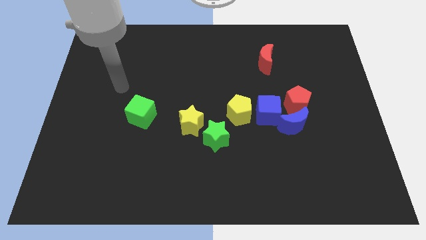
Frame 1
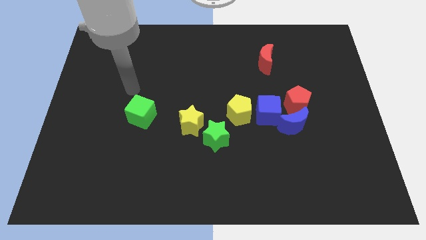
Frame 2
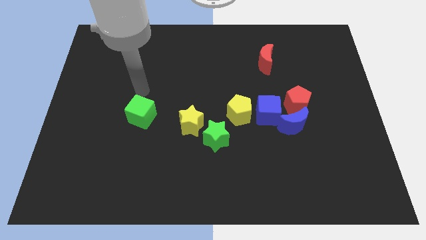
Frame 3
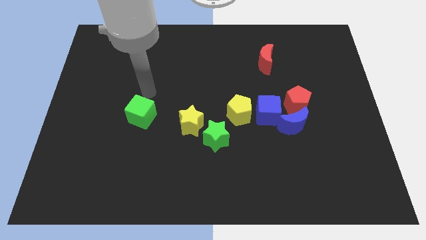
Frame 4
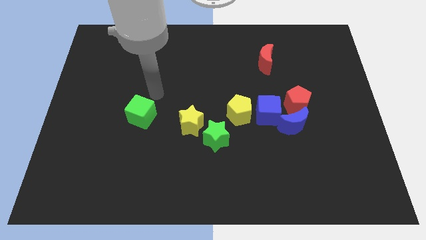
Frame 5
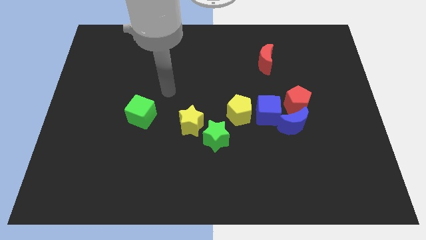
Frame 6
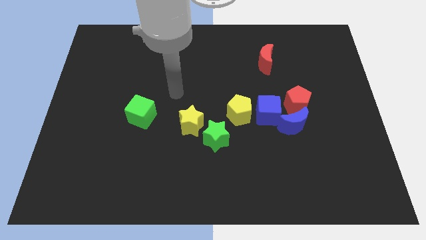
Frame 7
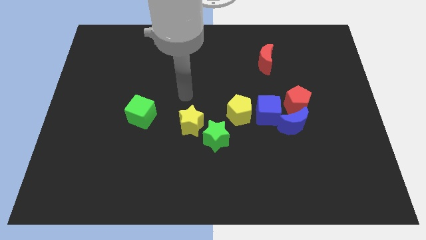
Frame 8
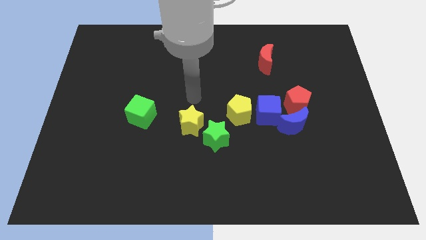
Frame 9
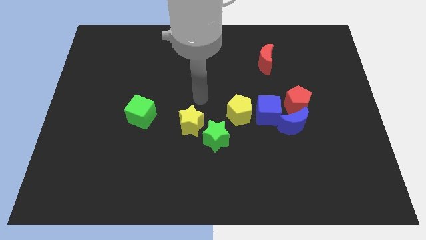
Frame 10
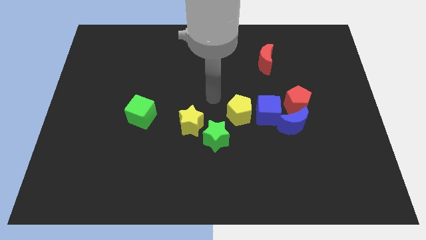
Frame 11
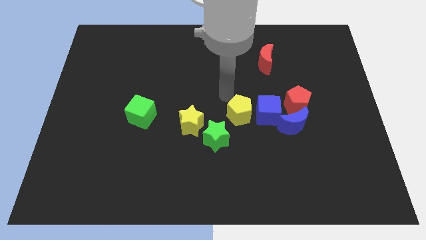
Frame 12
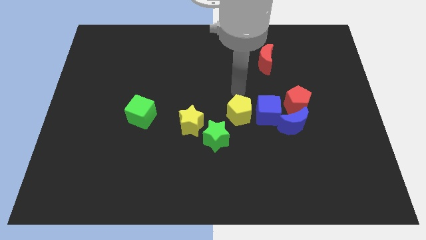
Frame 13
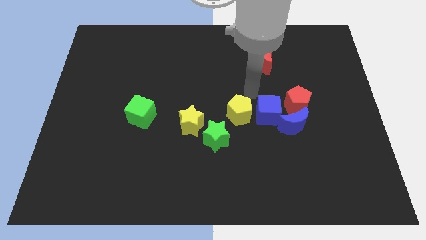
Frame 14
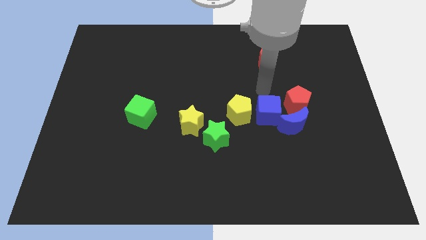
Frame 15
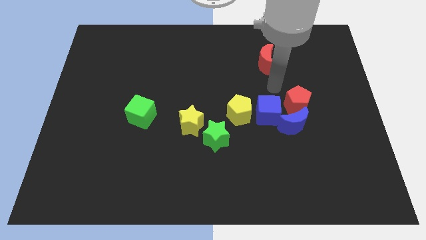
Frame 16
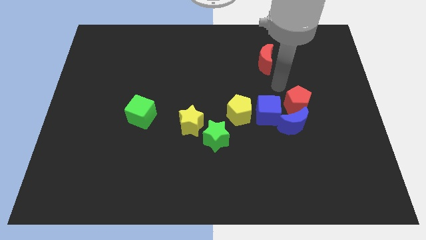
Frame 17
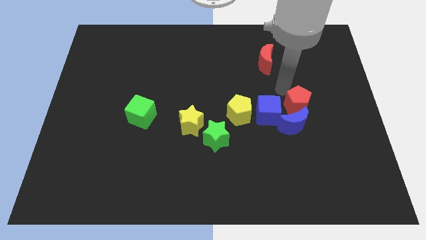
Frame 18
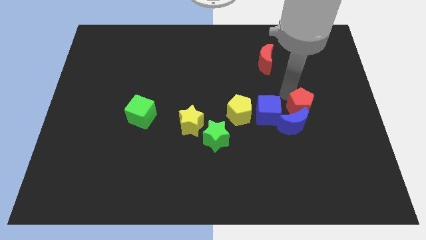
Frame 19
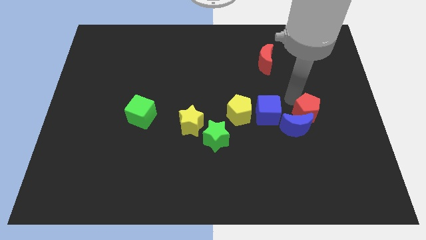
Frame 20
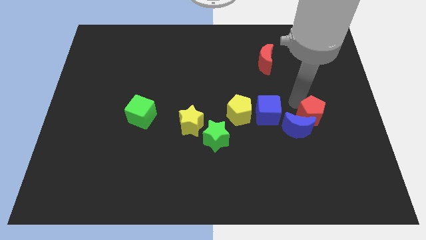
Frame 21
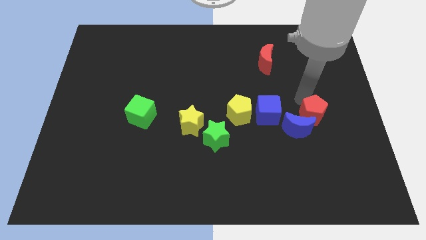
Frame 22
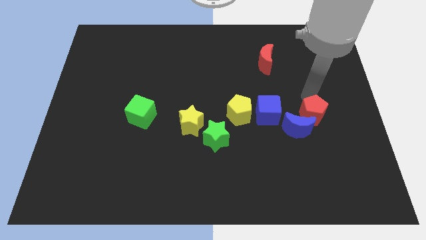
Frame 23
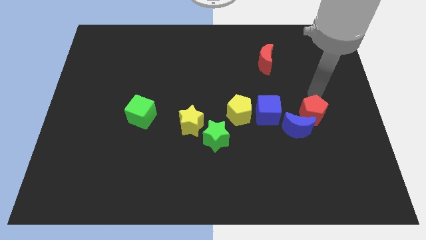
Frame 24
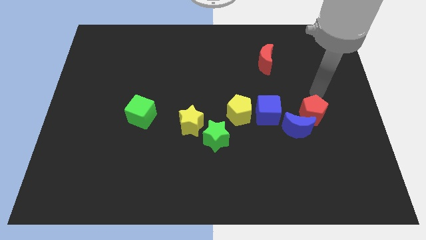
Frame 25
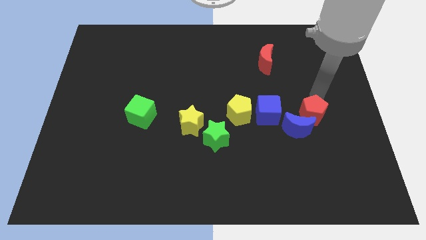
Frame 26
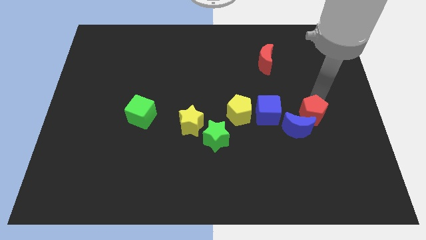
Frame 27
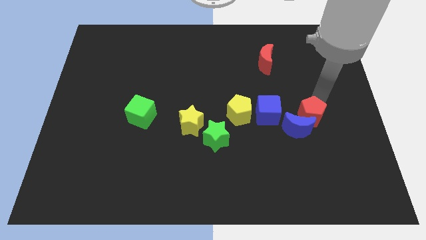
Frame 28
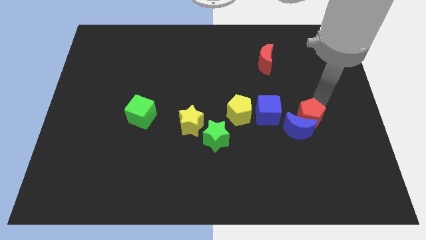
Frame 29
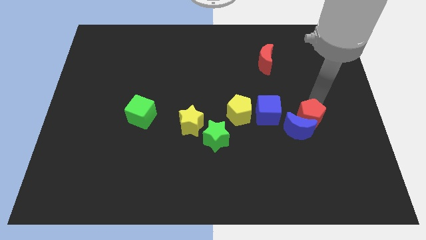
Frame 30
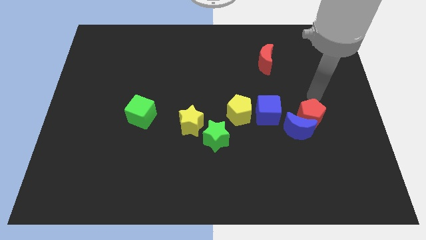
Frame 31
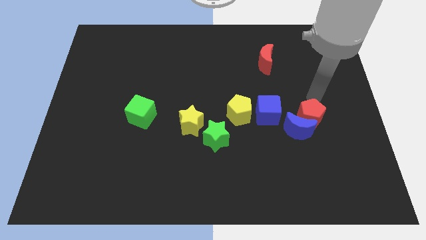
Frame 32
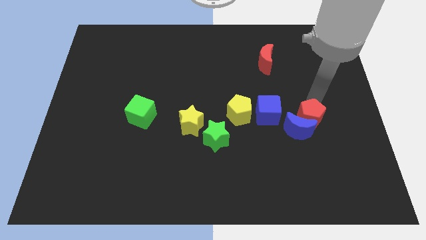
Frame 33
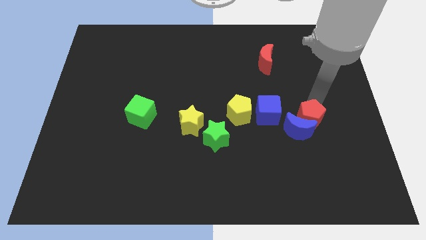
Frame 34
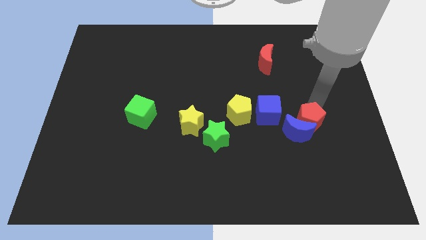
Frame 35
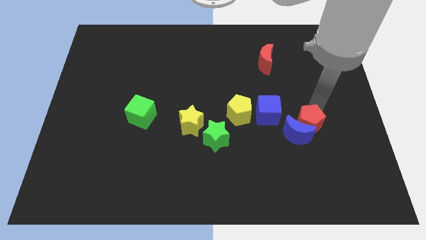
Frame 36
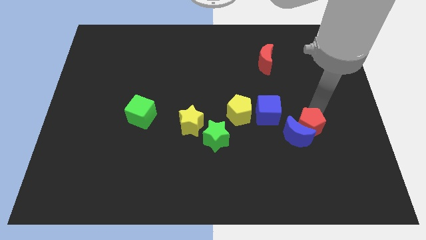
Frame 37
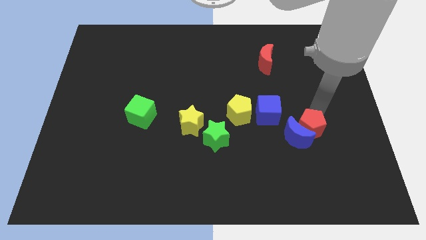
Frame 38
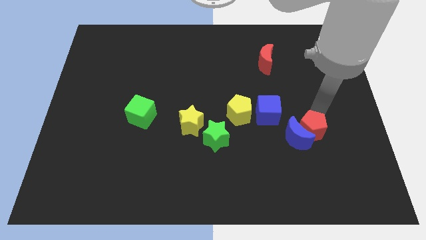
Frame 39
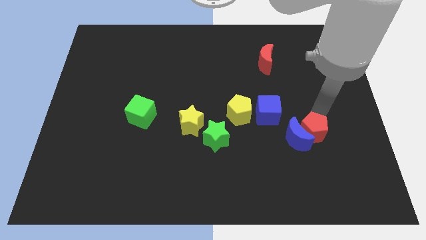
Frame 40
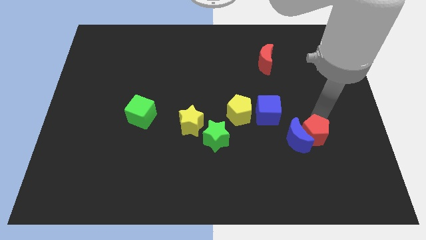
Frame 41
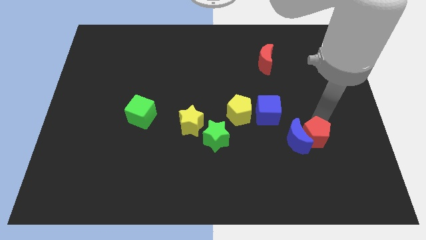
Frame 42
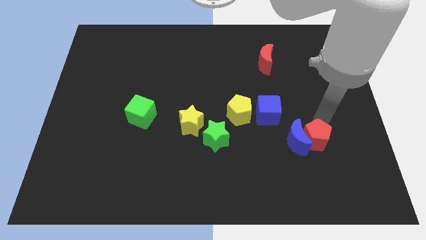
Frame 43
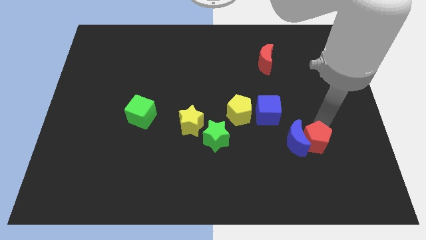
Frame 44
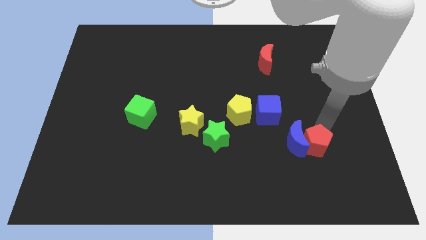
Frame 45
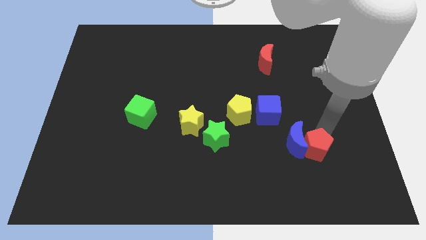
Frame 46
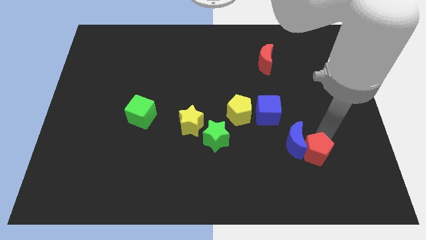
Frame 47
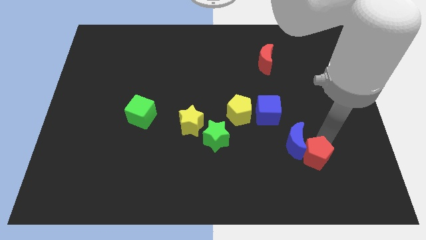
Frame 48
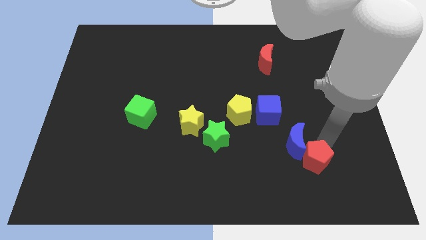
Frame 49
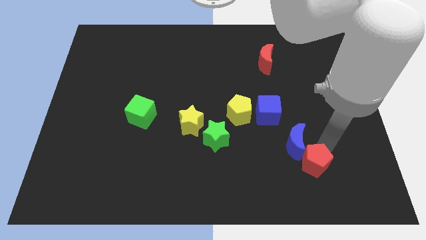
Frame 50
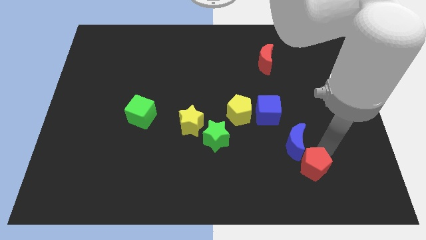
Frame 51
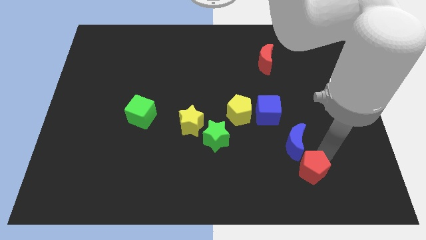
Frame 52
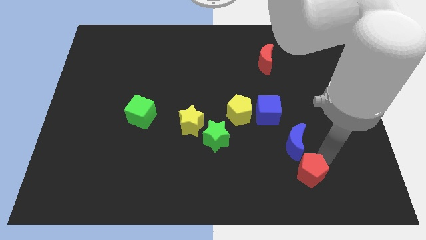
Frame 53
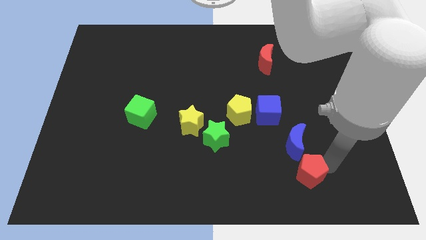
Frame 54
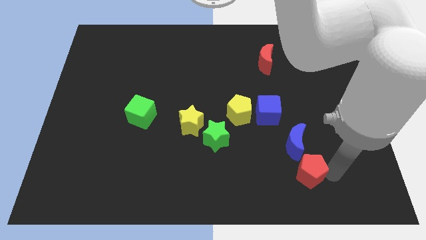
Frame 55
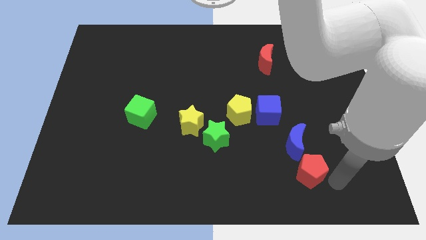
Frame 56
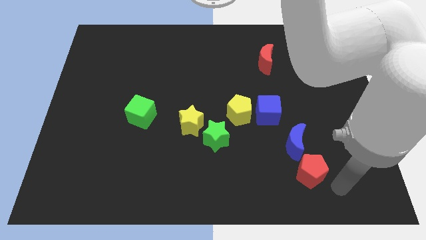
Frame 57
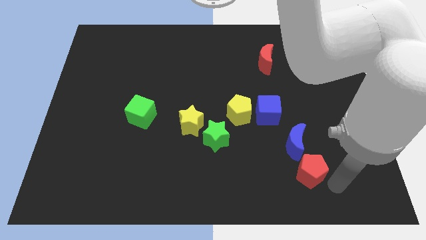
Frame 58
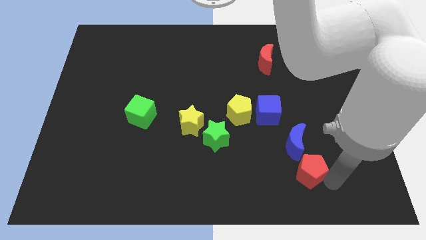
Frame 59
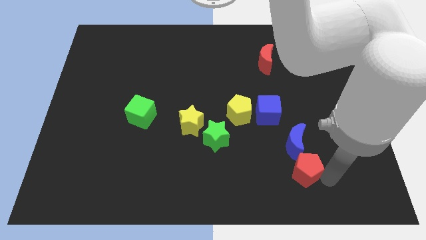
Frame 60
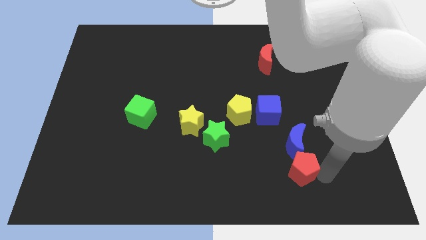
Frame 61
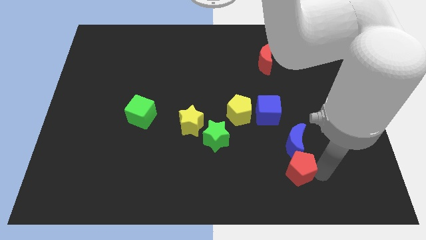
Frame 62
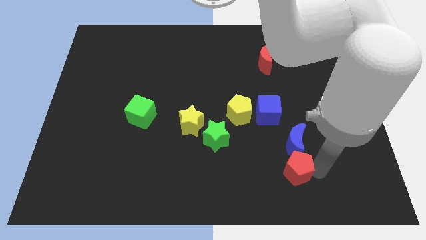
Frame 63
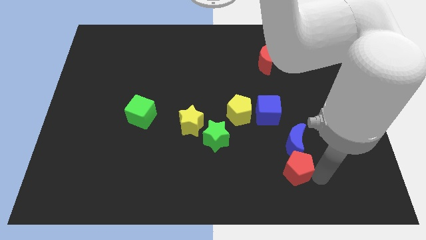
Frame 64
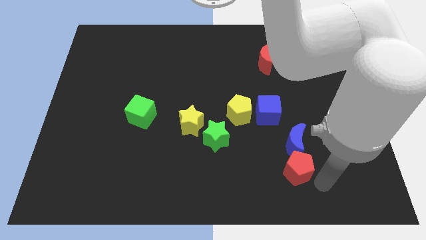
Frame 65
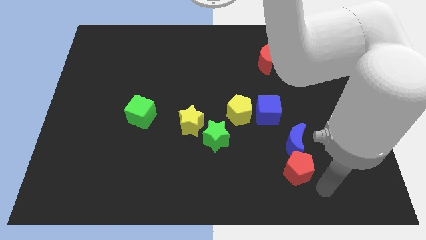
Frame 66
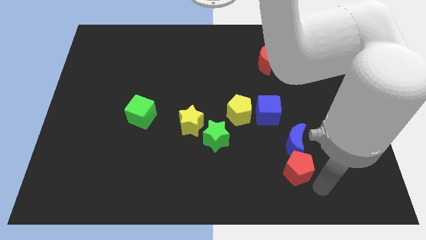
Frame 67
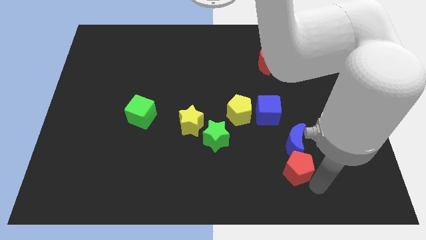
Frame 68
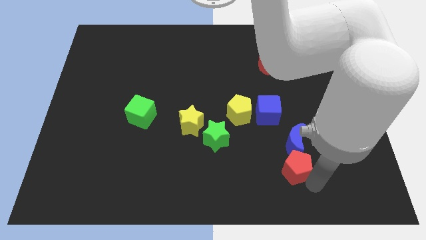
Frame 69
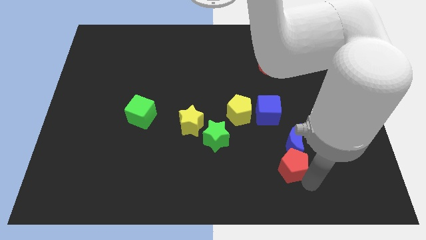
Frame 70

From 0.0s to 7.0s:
move the red pentagon to the bottom of the blue cube
